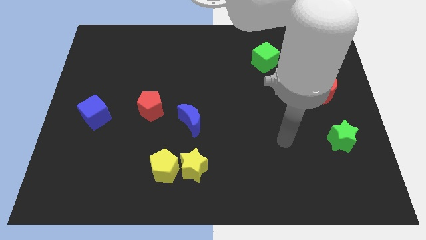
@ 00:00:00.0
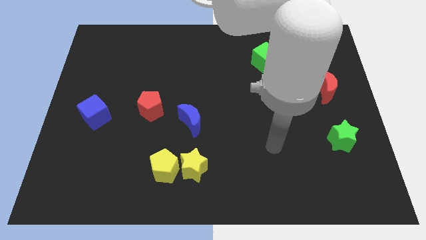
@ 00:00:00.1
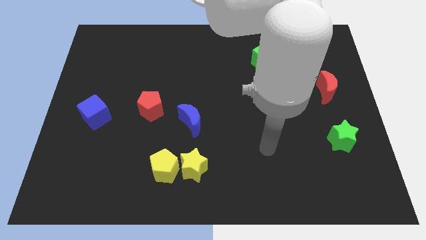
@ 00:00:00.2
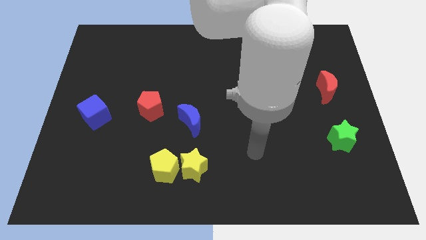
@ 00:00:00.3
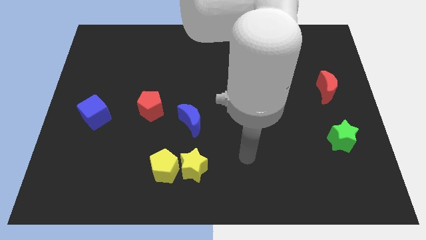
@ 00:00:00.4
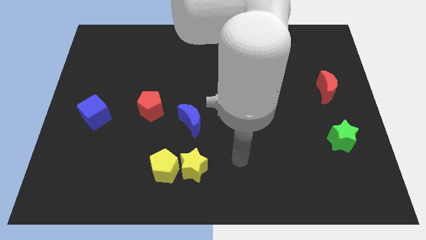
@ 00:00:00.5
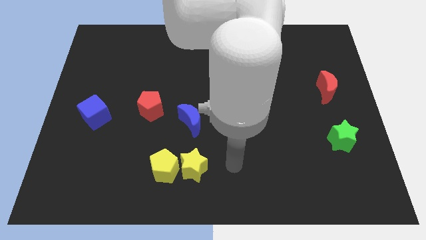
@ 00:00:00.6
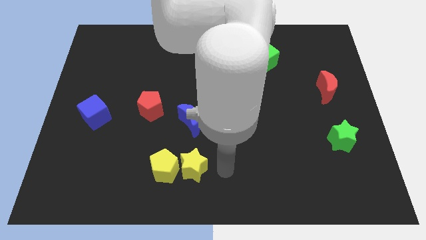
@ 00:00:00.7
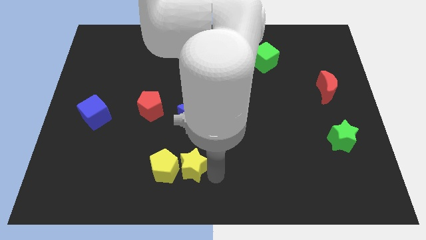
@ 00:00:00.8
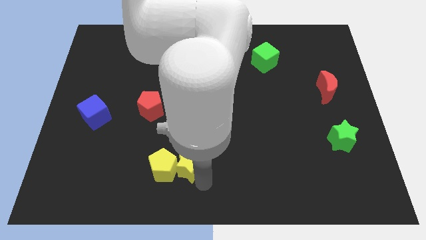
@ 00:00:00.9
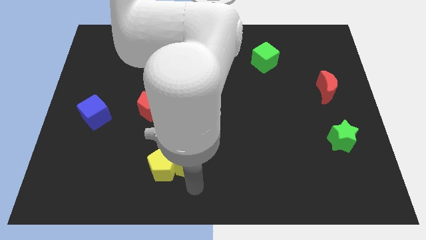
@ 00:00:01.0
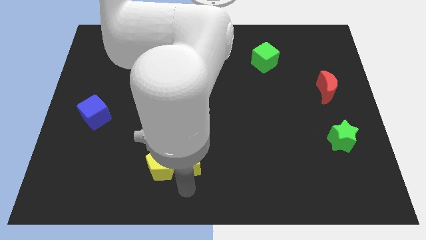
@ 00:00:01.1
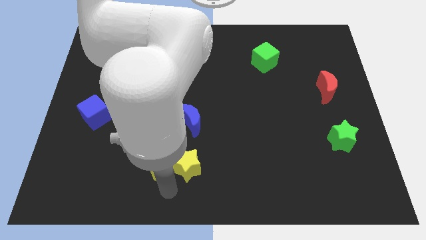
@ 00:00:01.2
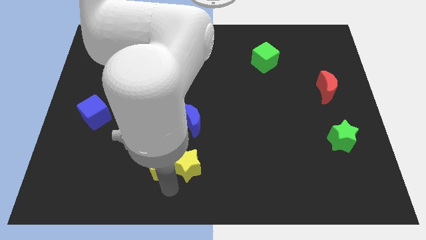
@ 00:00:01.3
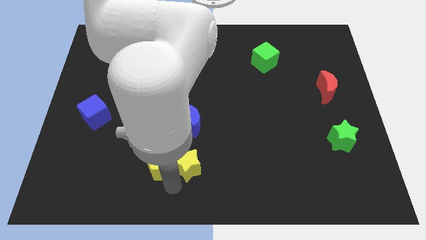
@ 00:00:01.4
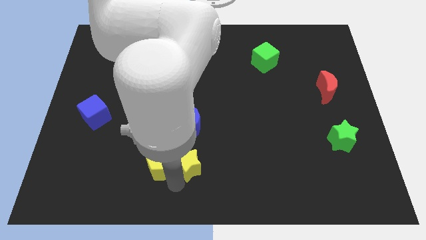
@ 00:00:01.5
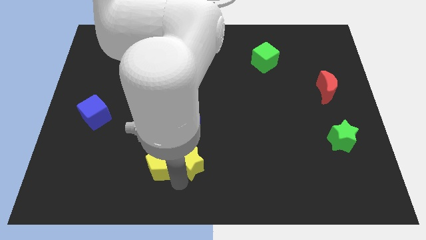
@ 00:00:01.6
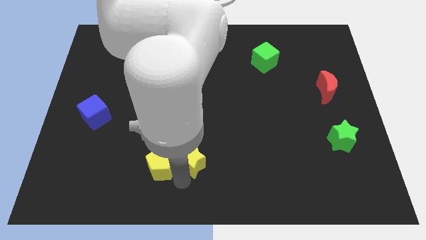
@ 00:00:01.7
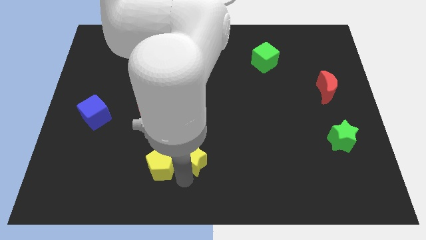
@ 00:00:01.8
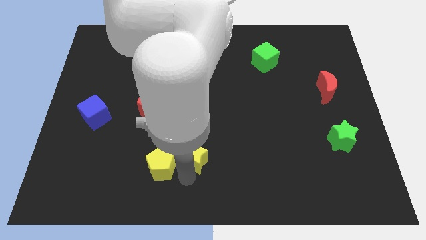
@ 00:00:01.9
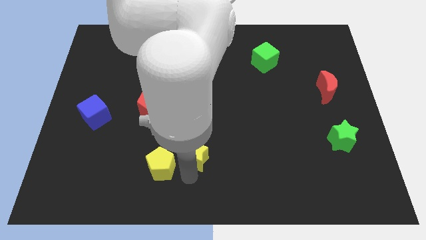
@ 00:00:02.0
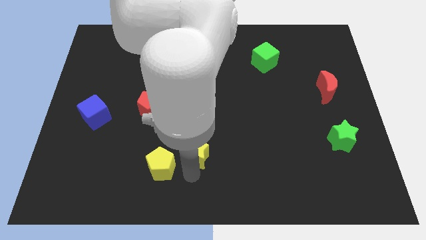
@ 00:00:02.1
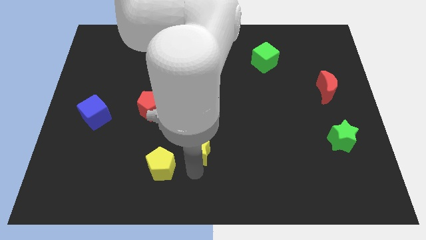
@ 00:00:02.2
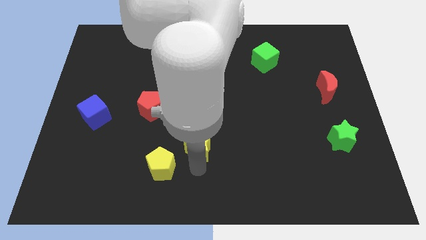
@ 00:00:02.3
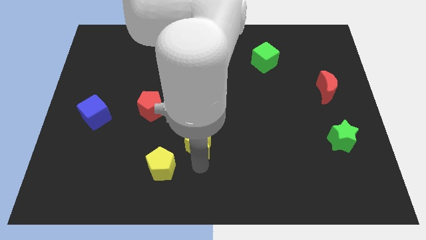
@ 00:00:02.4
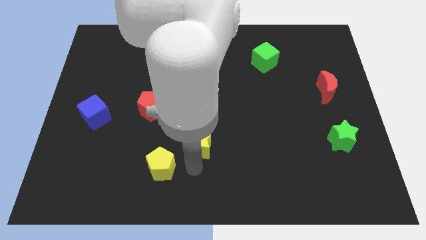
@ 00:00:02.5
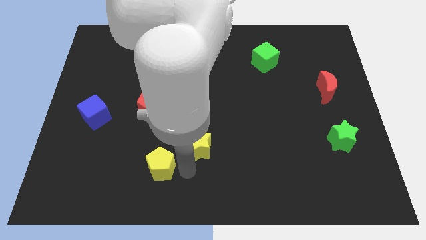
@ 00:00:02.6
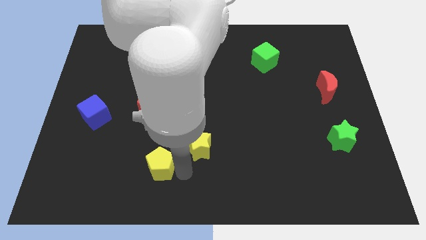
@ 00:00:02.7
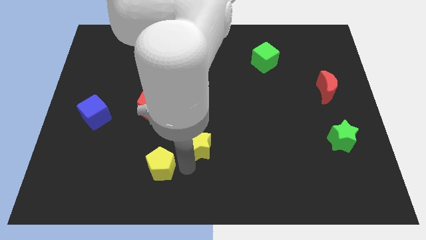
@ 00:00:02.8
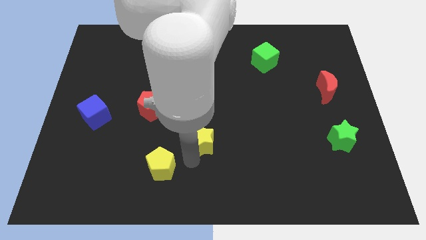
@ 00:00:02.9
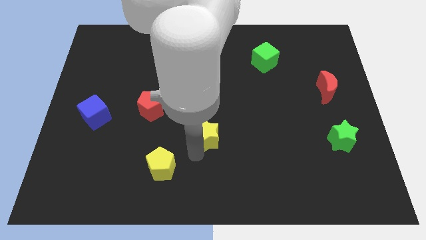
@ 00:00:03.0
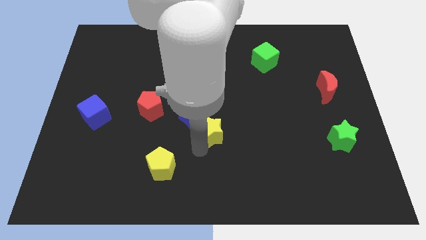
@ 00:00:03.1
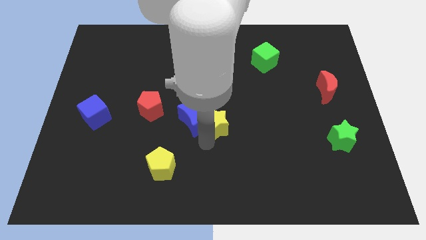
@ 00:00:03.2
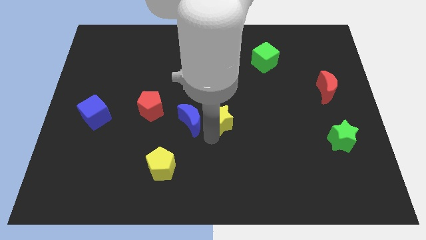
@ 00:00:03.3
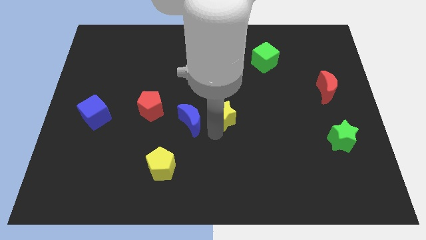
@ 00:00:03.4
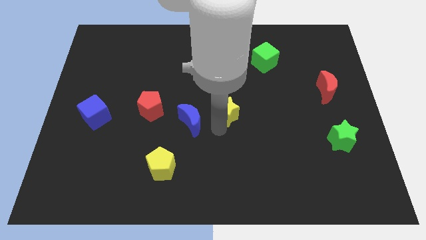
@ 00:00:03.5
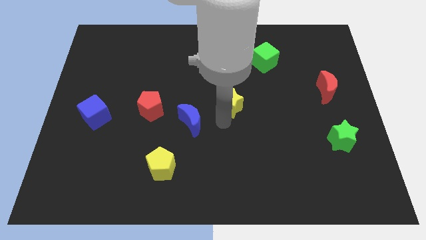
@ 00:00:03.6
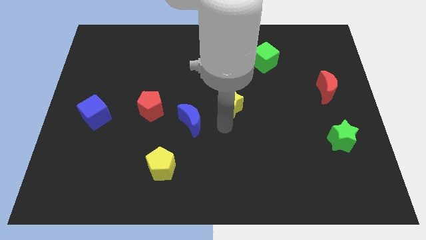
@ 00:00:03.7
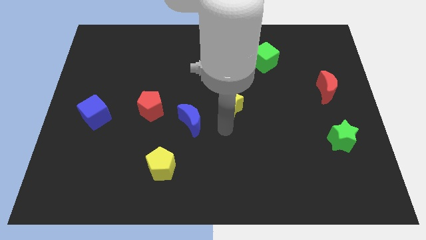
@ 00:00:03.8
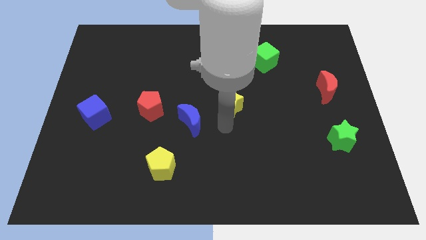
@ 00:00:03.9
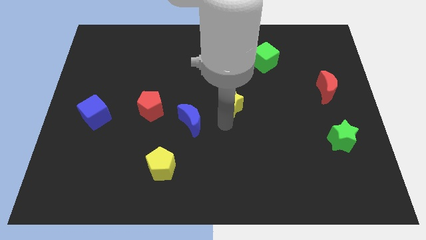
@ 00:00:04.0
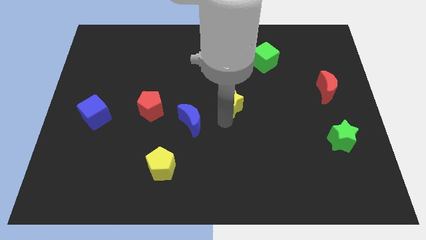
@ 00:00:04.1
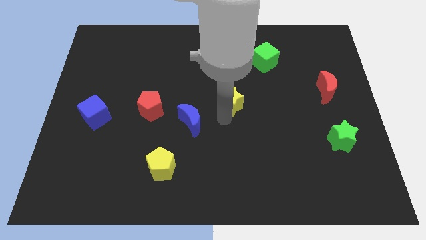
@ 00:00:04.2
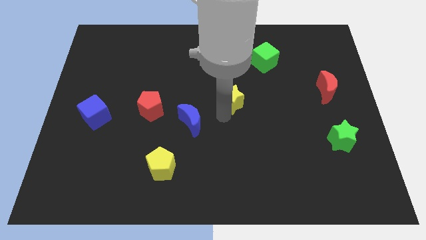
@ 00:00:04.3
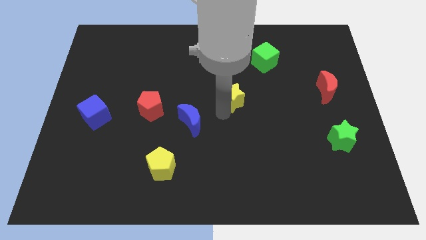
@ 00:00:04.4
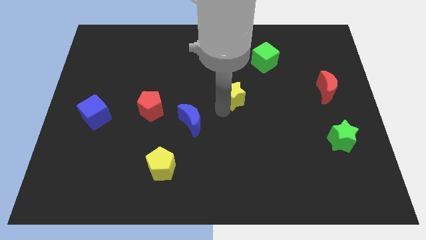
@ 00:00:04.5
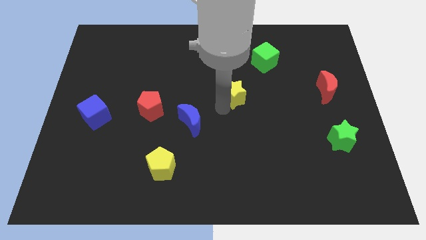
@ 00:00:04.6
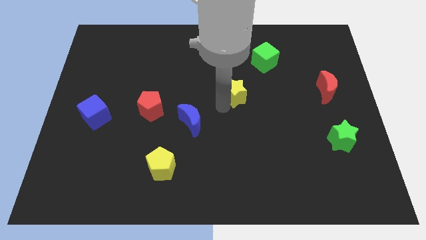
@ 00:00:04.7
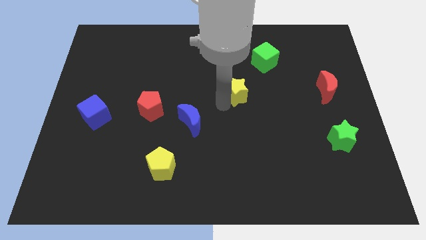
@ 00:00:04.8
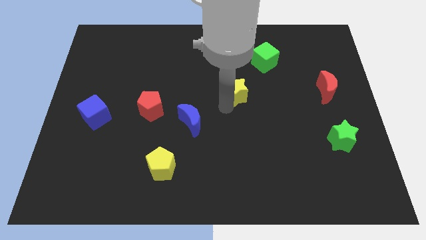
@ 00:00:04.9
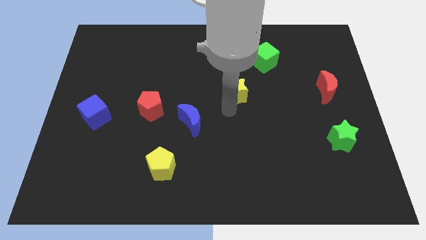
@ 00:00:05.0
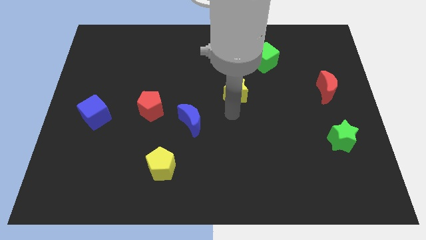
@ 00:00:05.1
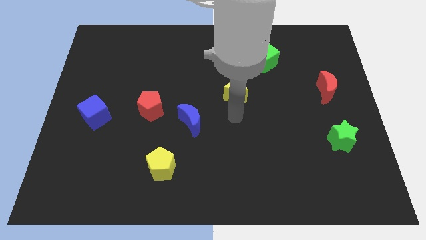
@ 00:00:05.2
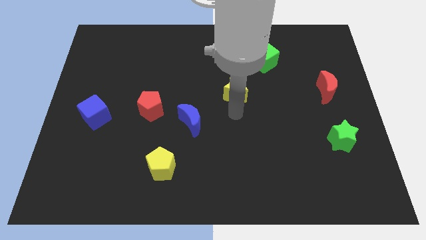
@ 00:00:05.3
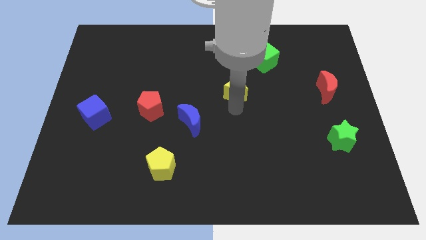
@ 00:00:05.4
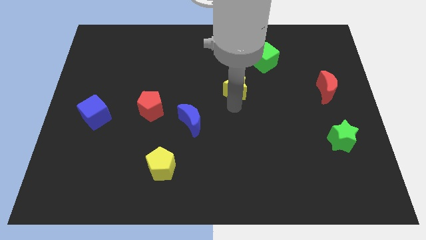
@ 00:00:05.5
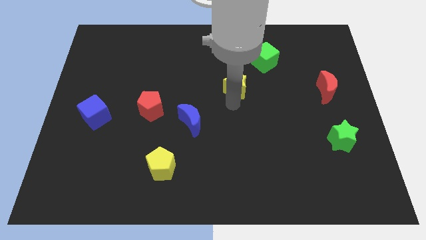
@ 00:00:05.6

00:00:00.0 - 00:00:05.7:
move the yellow star diagonally down and to the left of the green cube

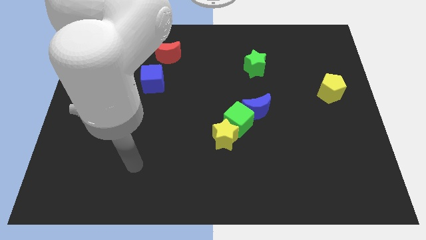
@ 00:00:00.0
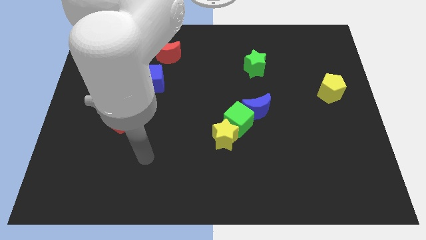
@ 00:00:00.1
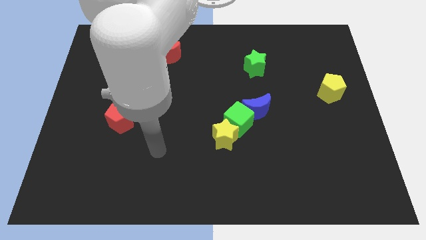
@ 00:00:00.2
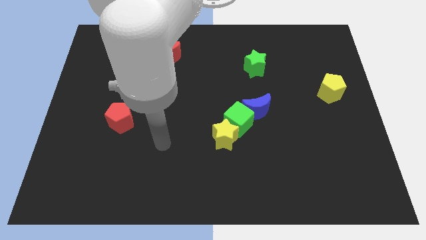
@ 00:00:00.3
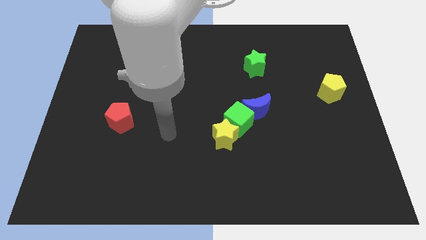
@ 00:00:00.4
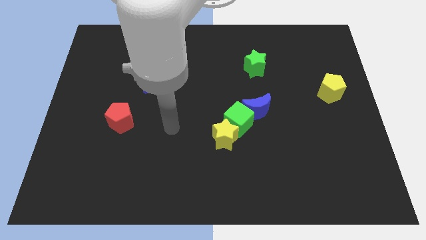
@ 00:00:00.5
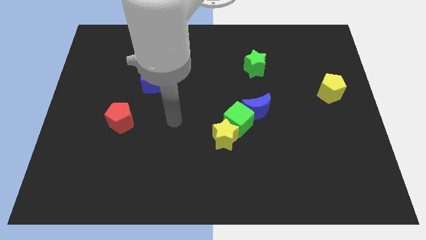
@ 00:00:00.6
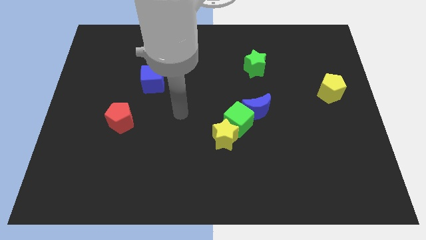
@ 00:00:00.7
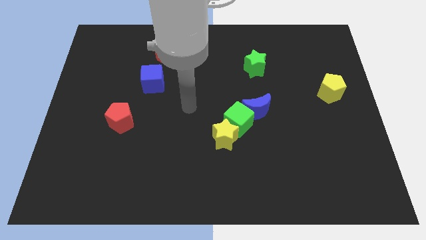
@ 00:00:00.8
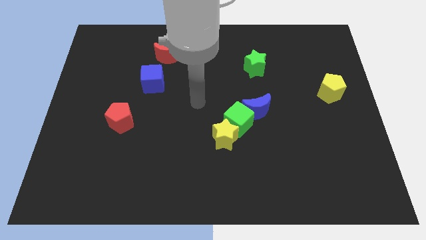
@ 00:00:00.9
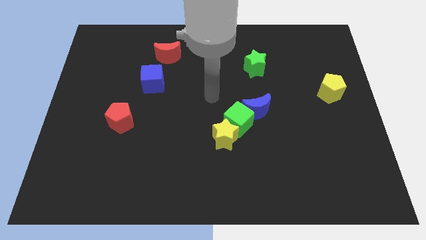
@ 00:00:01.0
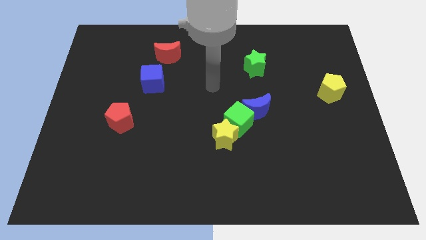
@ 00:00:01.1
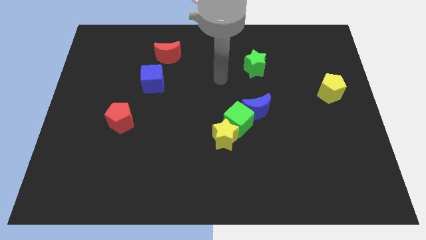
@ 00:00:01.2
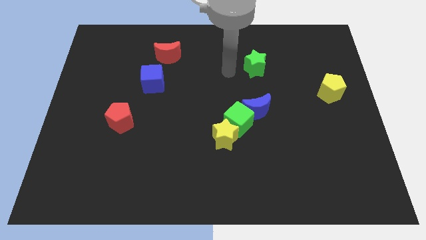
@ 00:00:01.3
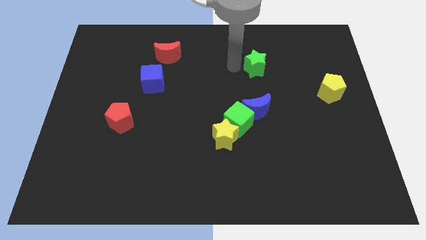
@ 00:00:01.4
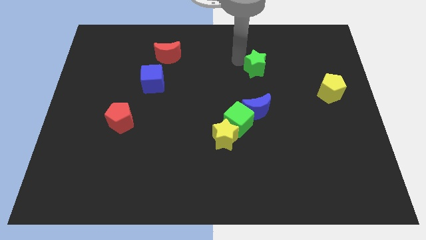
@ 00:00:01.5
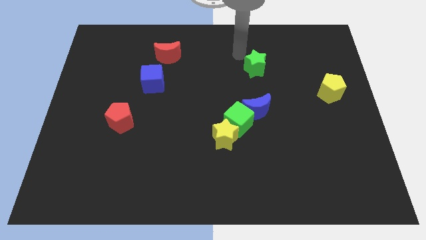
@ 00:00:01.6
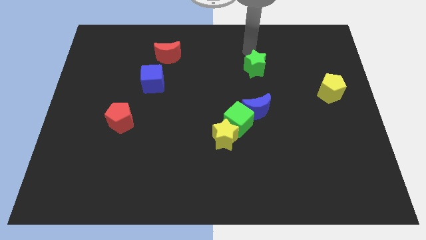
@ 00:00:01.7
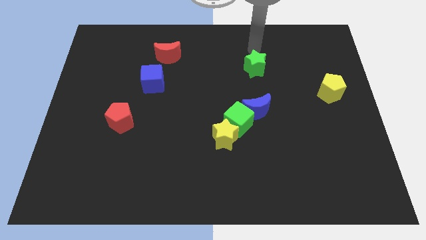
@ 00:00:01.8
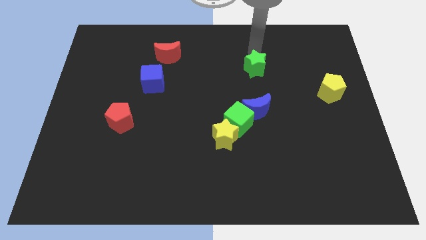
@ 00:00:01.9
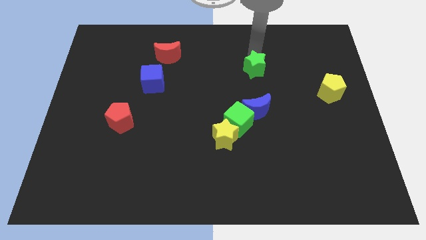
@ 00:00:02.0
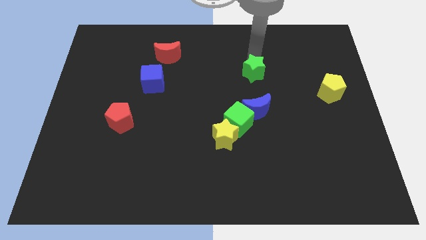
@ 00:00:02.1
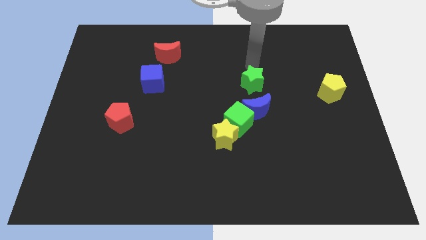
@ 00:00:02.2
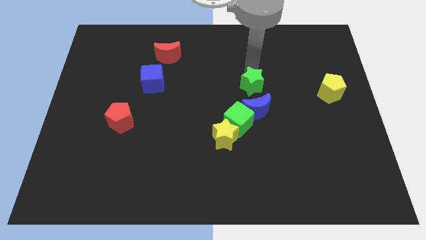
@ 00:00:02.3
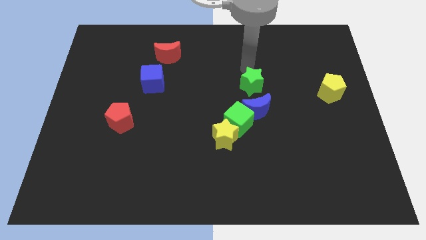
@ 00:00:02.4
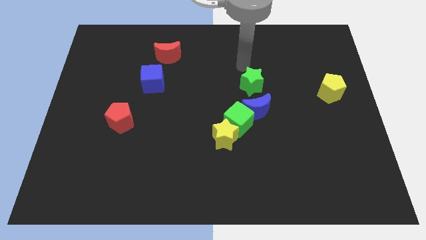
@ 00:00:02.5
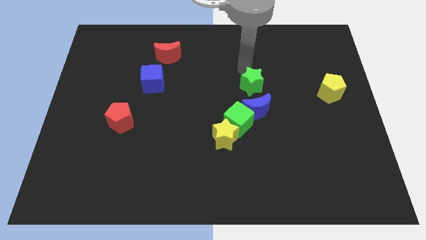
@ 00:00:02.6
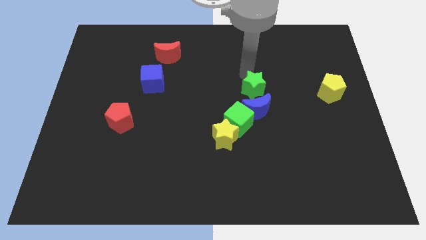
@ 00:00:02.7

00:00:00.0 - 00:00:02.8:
push the green star to the top right side of the green cube
